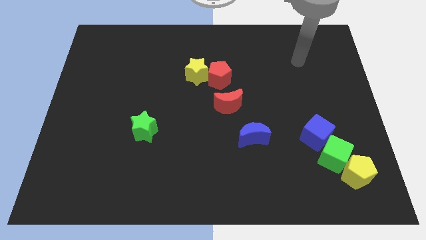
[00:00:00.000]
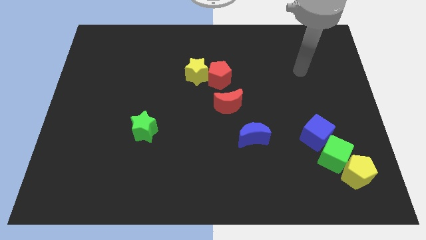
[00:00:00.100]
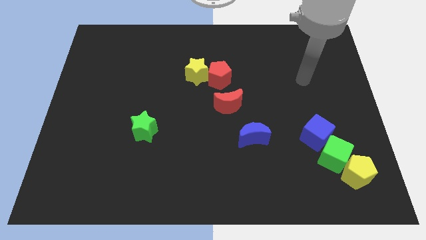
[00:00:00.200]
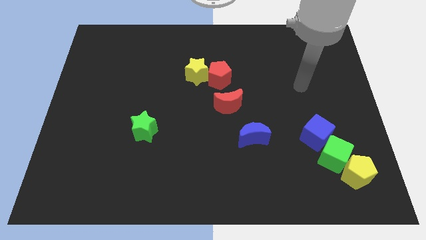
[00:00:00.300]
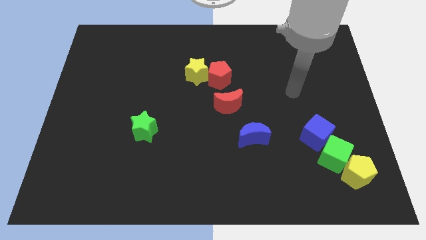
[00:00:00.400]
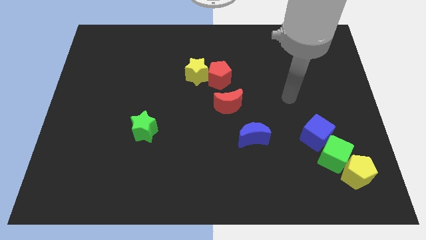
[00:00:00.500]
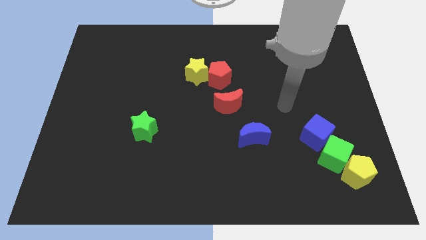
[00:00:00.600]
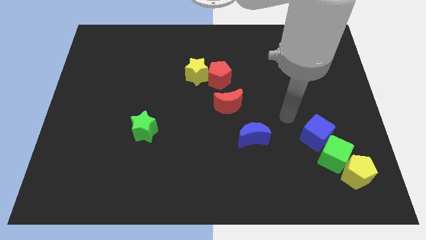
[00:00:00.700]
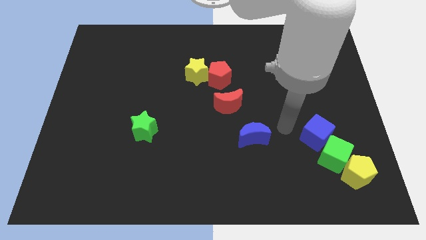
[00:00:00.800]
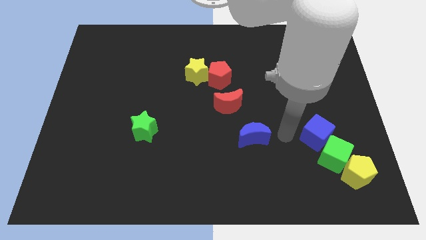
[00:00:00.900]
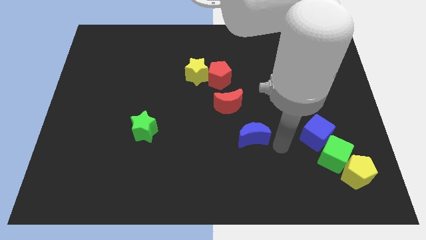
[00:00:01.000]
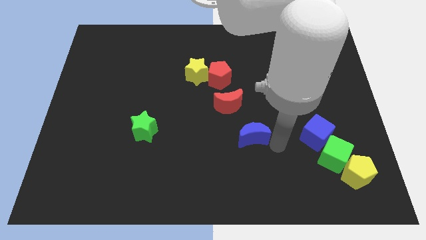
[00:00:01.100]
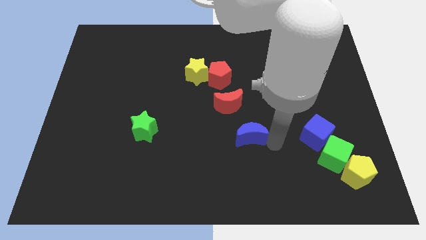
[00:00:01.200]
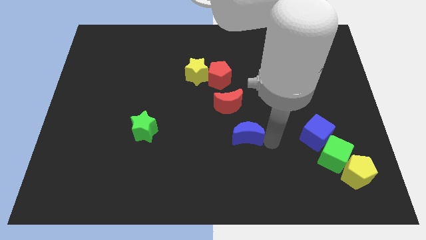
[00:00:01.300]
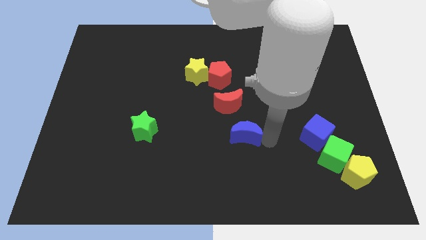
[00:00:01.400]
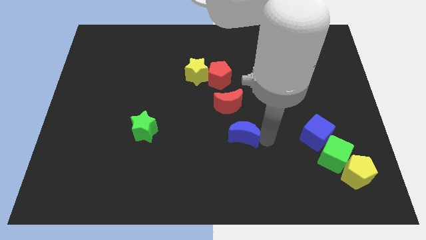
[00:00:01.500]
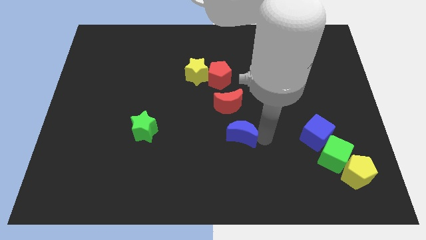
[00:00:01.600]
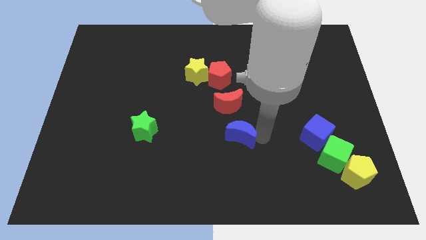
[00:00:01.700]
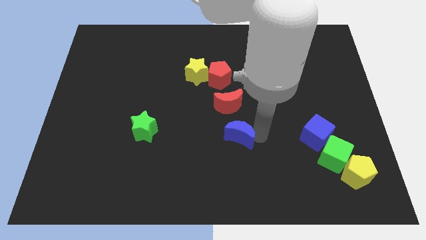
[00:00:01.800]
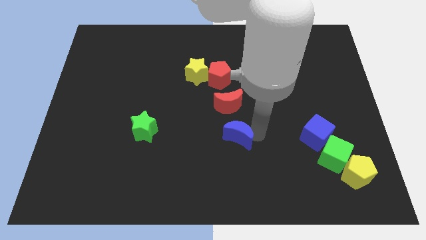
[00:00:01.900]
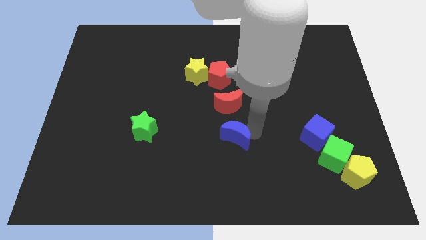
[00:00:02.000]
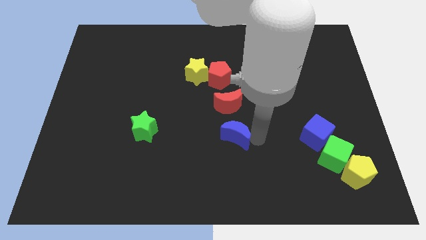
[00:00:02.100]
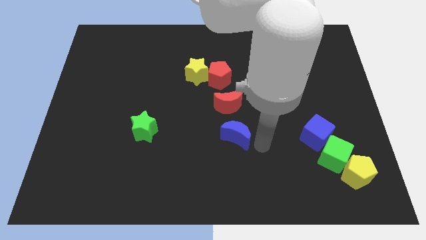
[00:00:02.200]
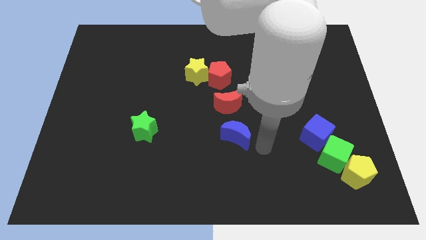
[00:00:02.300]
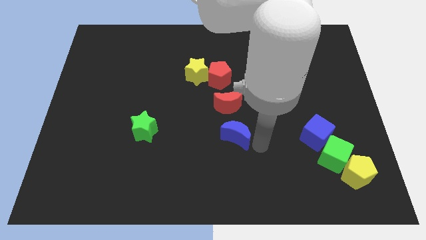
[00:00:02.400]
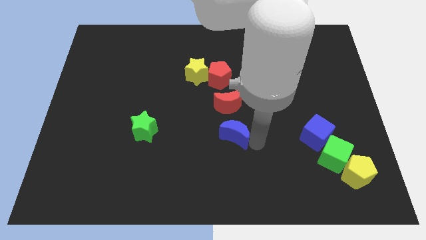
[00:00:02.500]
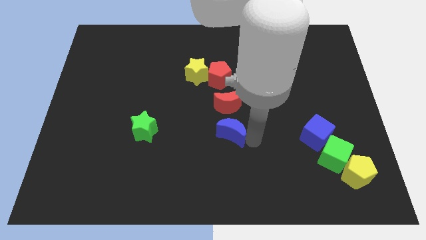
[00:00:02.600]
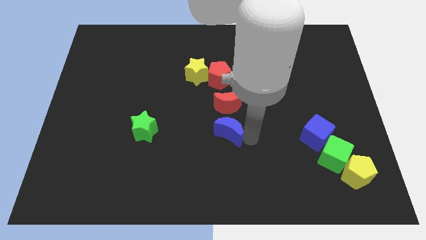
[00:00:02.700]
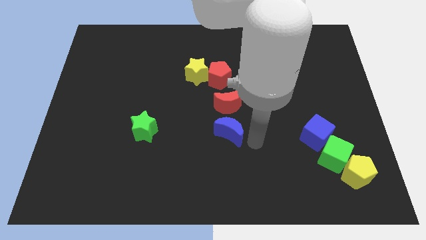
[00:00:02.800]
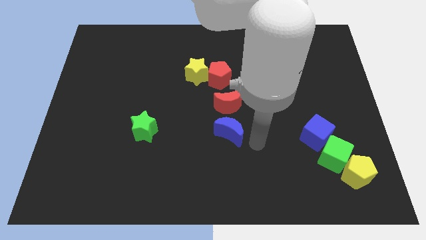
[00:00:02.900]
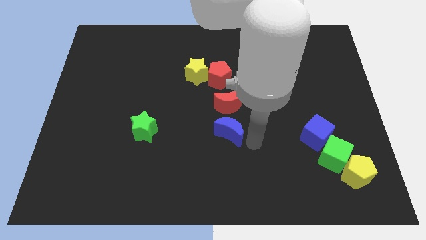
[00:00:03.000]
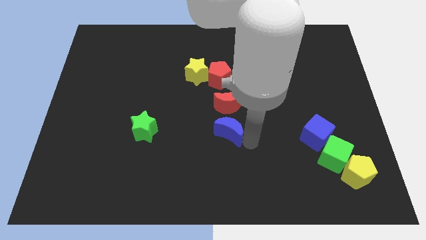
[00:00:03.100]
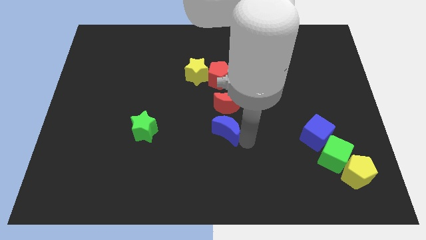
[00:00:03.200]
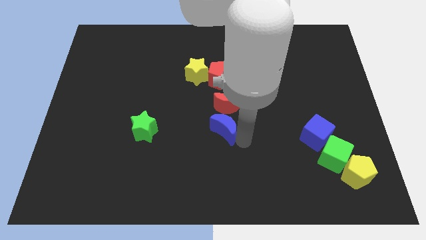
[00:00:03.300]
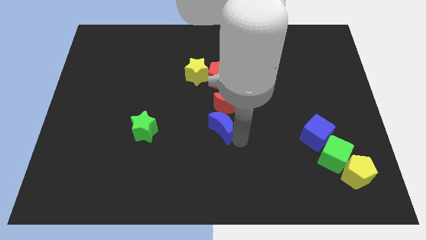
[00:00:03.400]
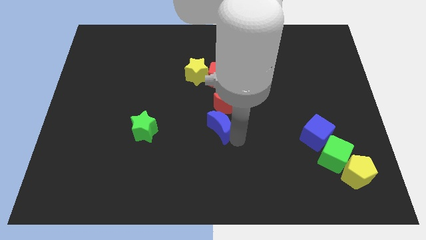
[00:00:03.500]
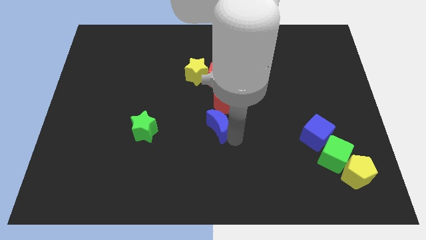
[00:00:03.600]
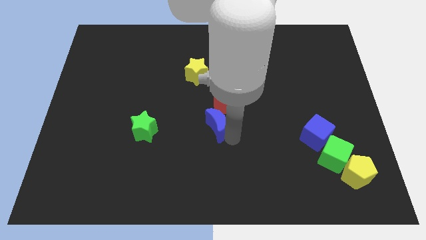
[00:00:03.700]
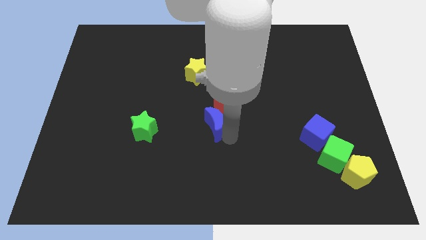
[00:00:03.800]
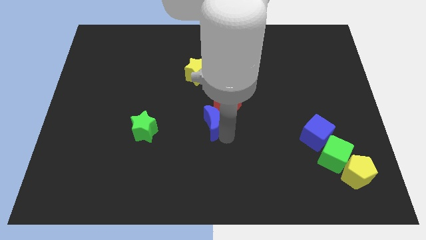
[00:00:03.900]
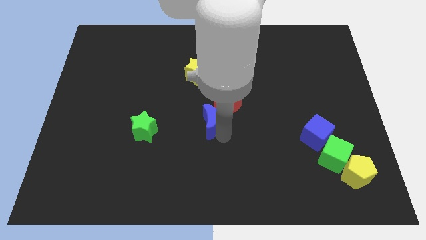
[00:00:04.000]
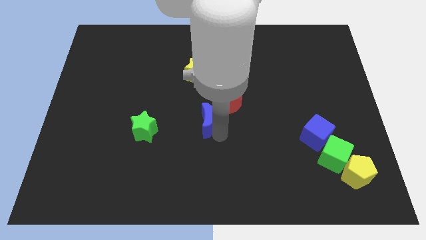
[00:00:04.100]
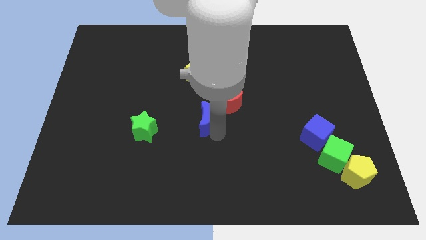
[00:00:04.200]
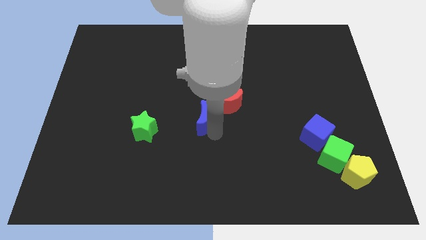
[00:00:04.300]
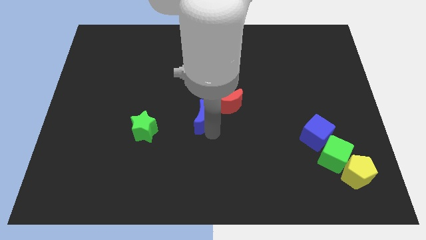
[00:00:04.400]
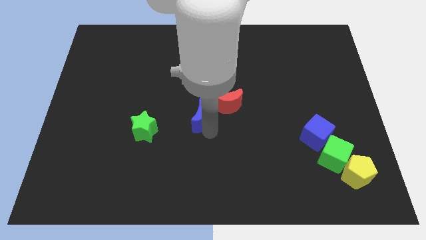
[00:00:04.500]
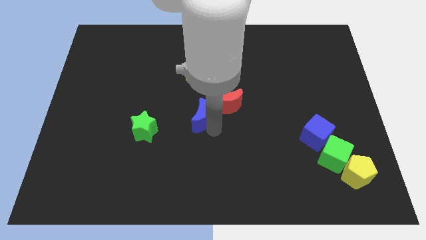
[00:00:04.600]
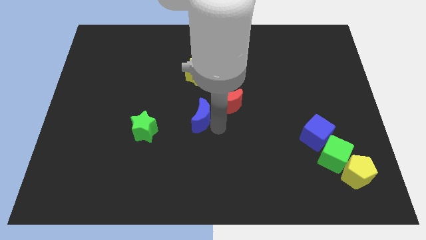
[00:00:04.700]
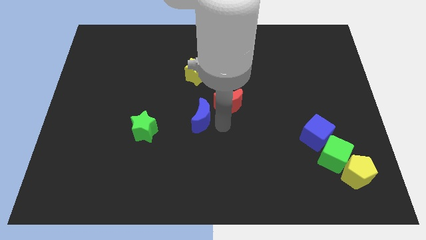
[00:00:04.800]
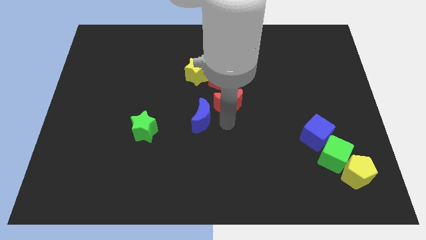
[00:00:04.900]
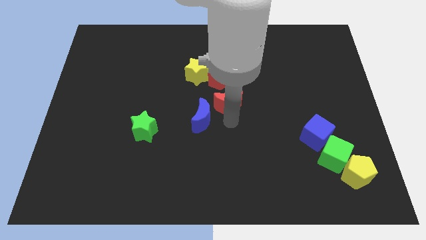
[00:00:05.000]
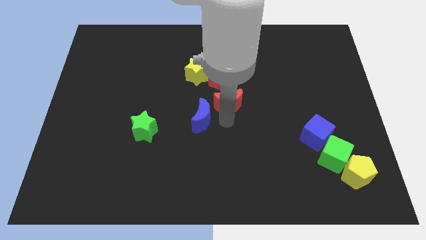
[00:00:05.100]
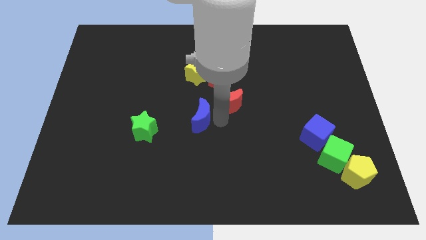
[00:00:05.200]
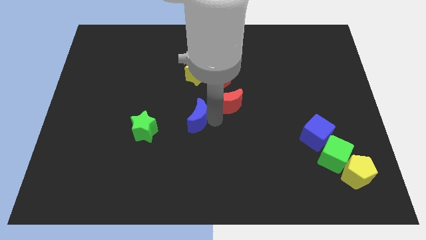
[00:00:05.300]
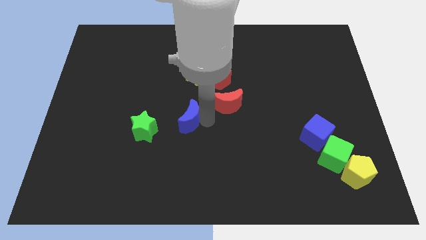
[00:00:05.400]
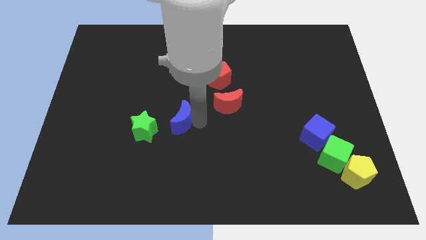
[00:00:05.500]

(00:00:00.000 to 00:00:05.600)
move the blue moon to the top right side of the green star

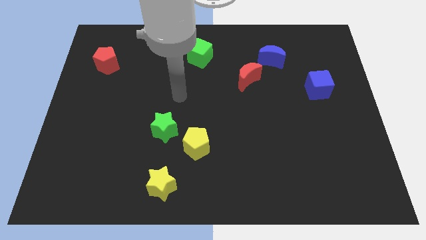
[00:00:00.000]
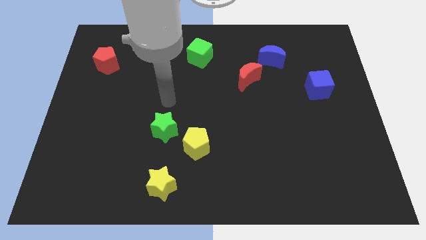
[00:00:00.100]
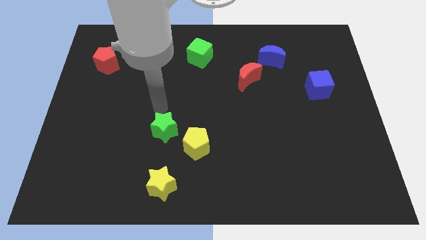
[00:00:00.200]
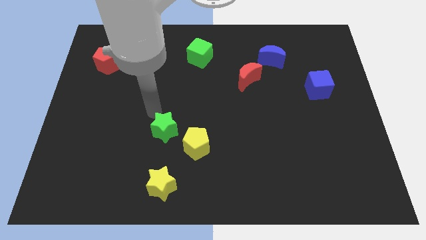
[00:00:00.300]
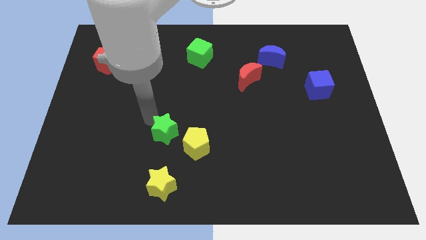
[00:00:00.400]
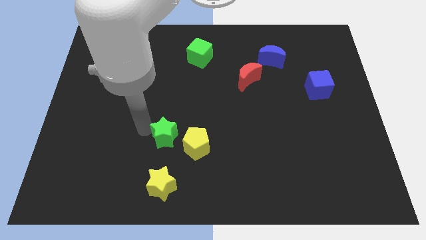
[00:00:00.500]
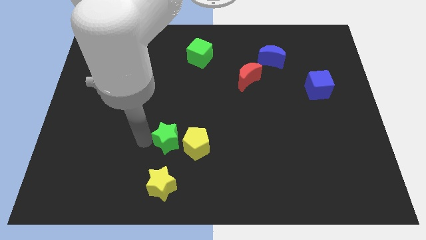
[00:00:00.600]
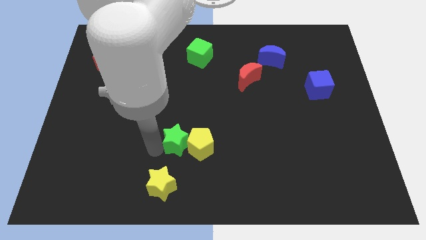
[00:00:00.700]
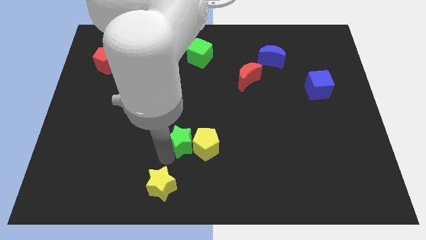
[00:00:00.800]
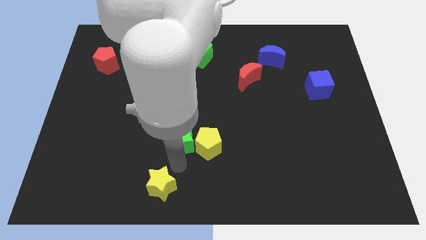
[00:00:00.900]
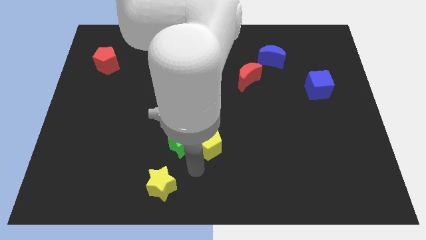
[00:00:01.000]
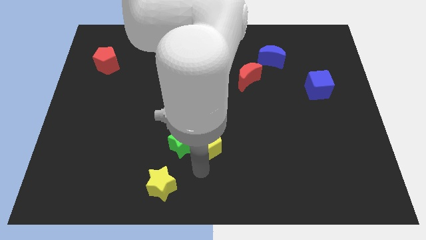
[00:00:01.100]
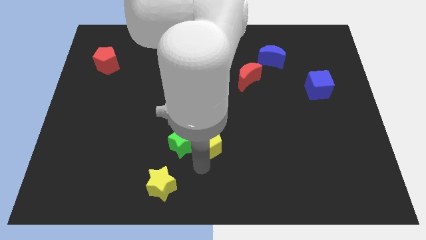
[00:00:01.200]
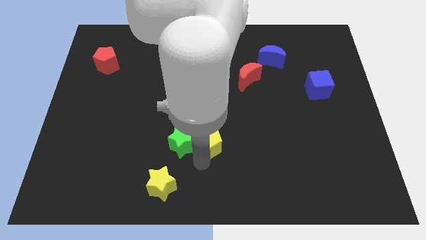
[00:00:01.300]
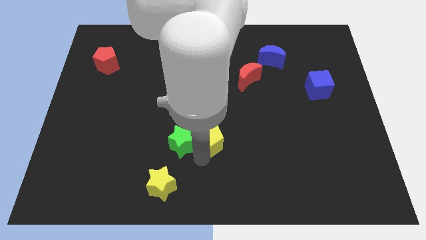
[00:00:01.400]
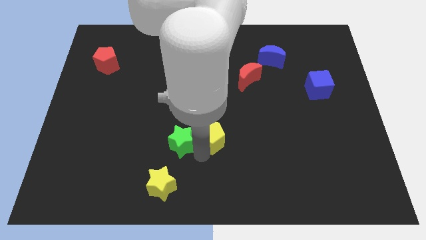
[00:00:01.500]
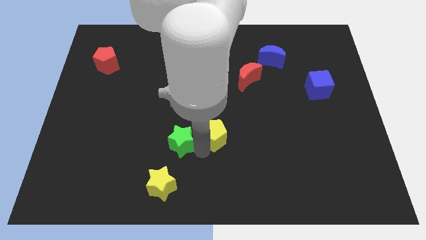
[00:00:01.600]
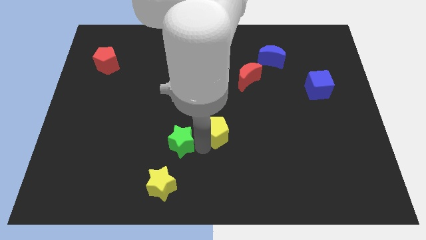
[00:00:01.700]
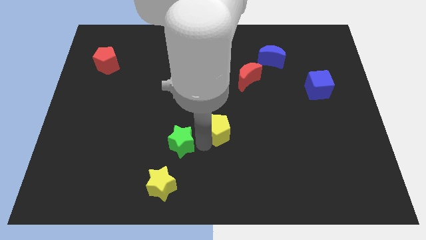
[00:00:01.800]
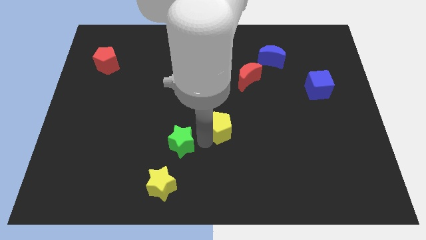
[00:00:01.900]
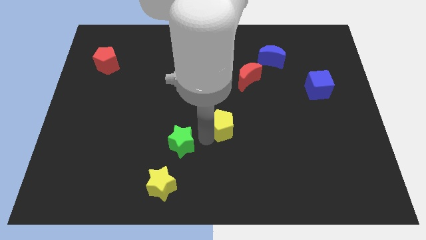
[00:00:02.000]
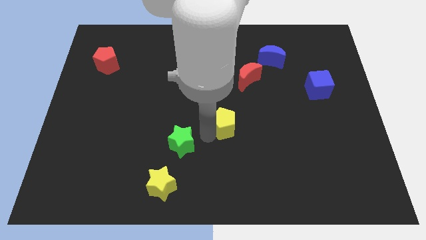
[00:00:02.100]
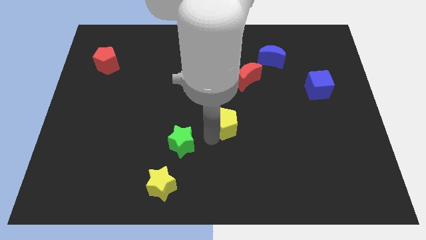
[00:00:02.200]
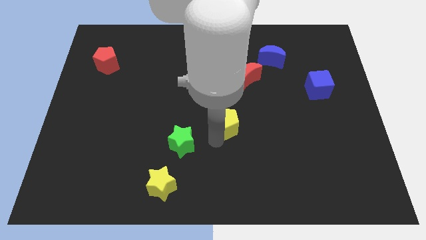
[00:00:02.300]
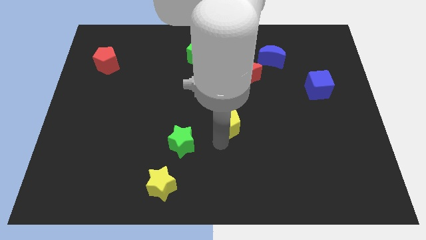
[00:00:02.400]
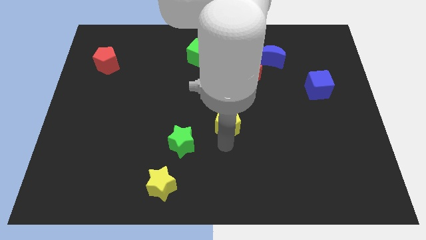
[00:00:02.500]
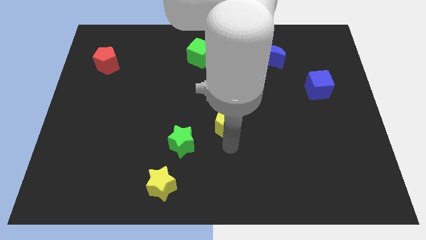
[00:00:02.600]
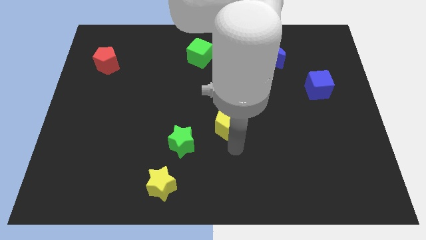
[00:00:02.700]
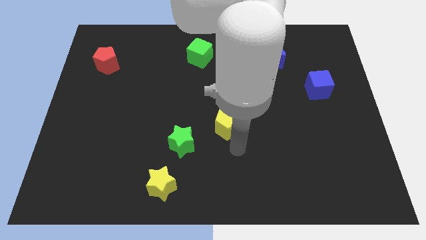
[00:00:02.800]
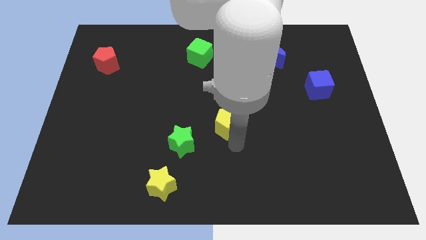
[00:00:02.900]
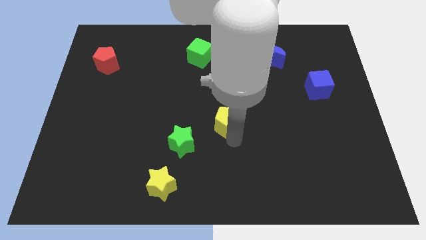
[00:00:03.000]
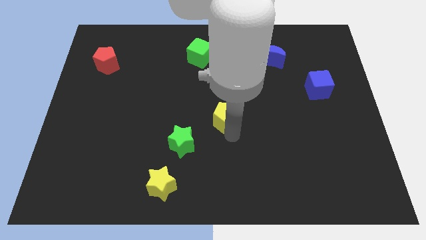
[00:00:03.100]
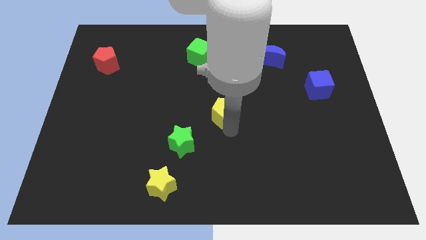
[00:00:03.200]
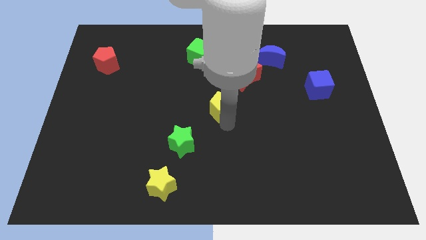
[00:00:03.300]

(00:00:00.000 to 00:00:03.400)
slide the yellow pentagon diagonally down and to the left of the red moon
